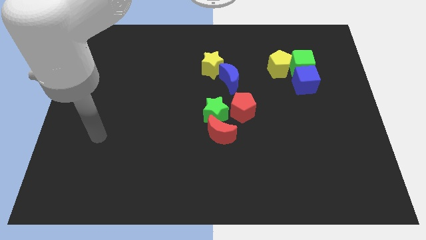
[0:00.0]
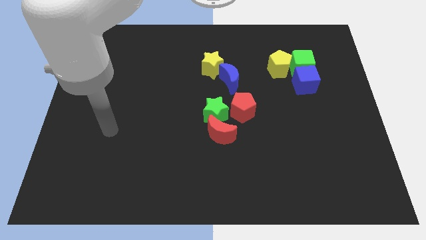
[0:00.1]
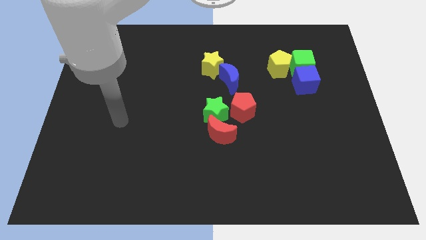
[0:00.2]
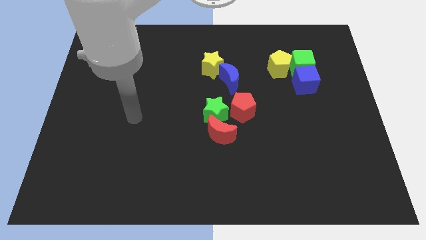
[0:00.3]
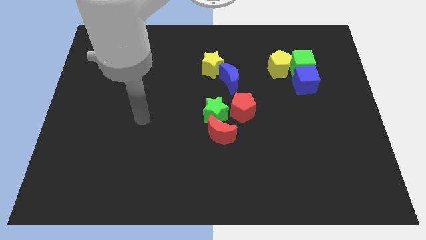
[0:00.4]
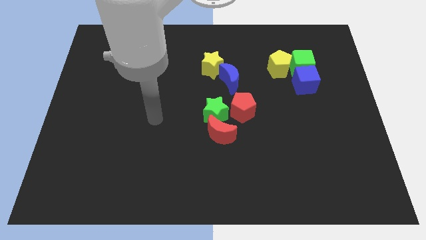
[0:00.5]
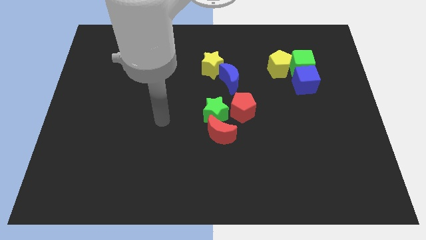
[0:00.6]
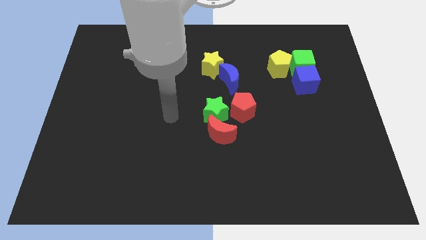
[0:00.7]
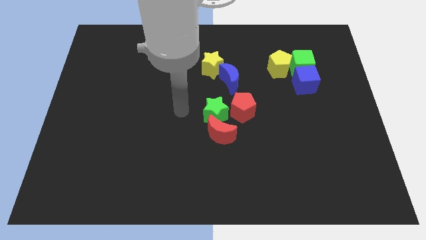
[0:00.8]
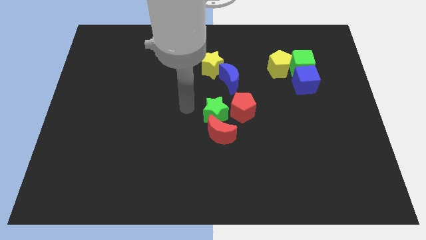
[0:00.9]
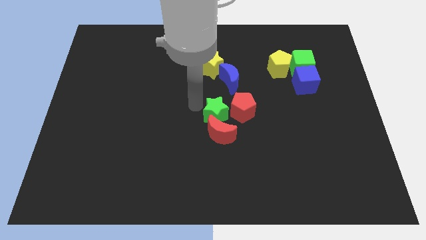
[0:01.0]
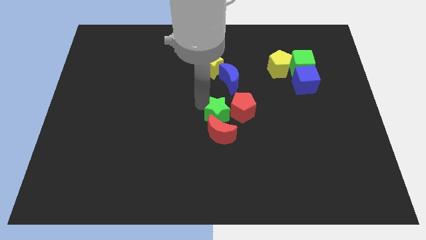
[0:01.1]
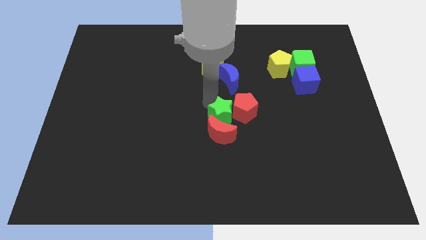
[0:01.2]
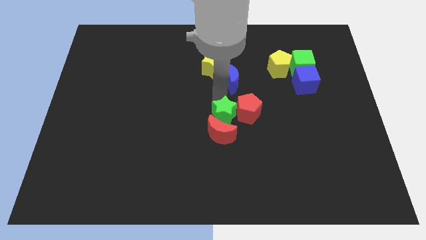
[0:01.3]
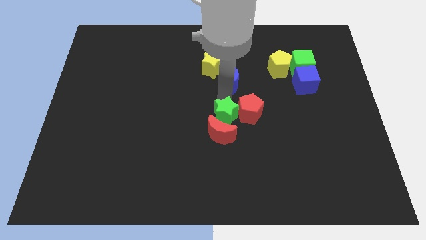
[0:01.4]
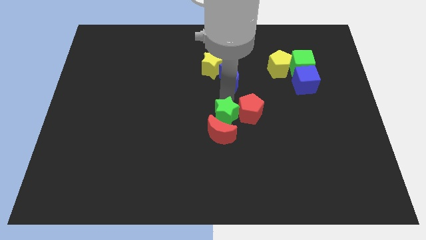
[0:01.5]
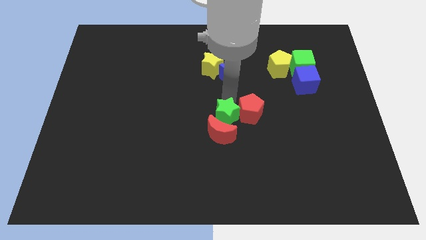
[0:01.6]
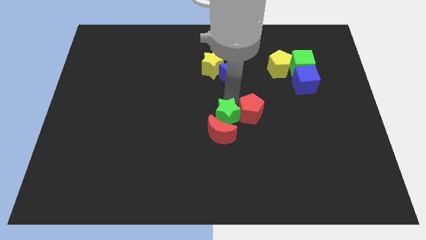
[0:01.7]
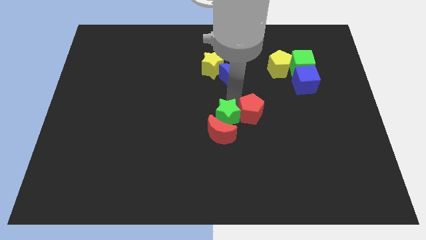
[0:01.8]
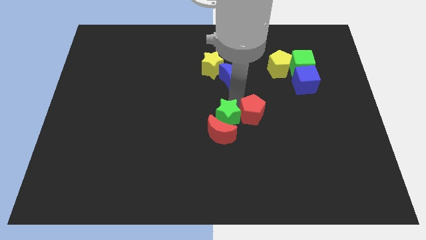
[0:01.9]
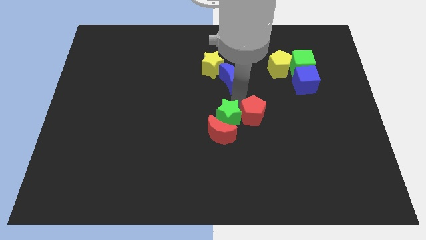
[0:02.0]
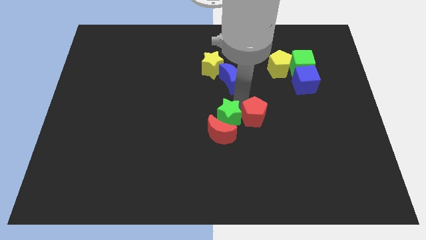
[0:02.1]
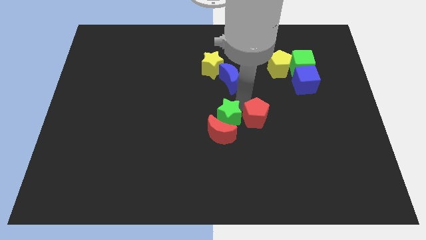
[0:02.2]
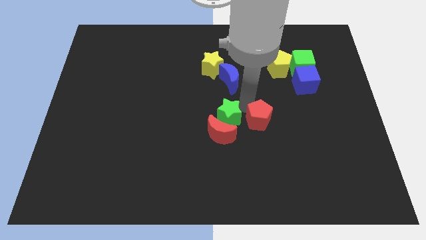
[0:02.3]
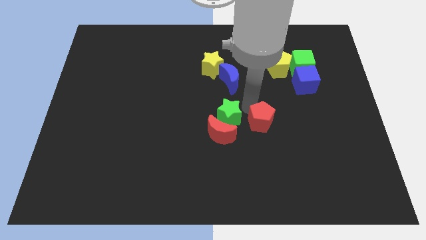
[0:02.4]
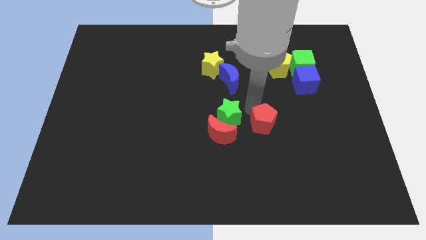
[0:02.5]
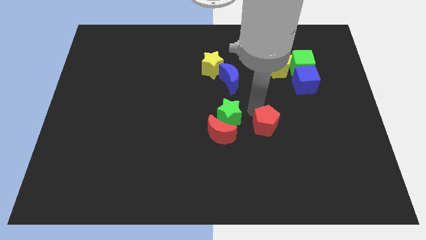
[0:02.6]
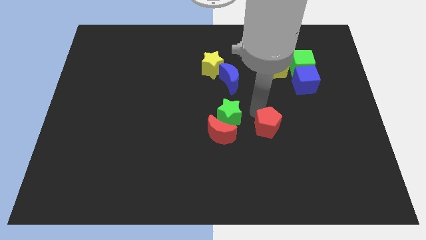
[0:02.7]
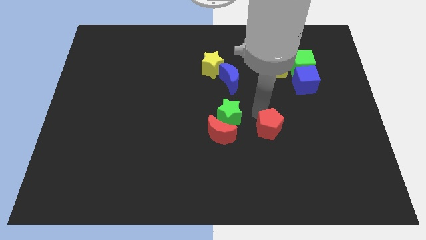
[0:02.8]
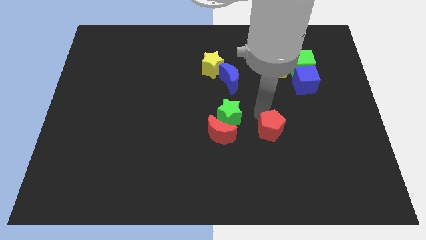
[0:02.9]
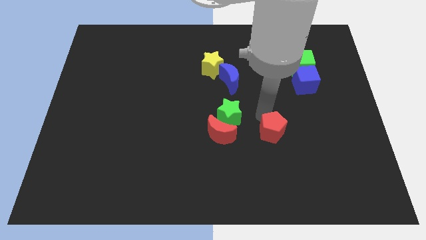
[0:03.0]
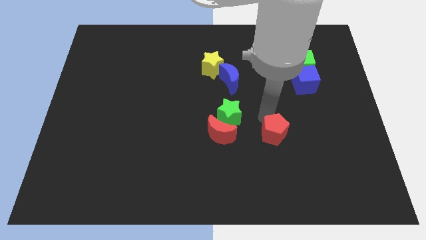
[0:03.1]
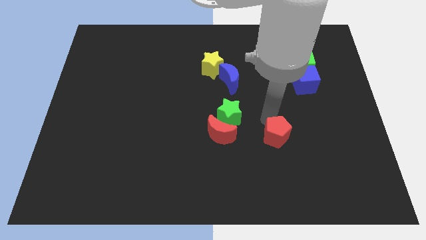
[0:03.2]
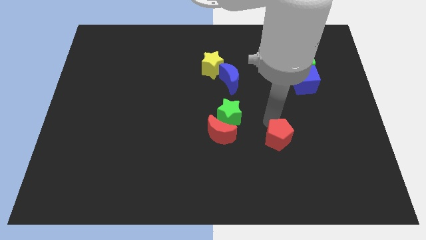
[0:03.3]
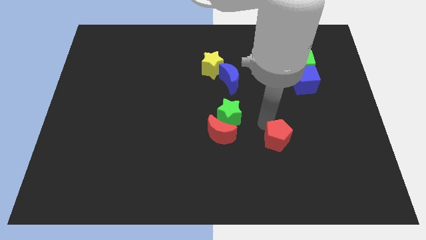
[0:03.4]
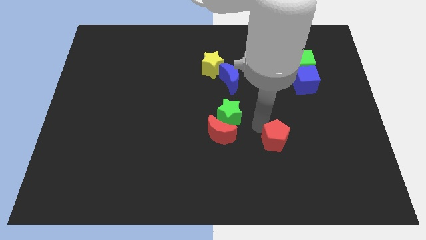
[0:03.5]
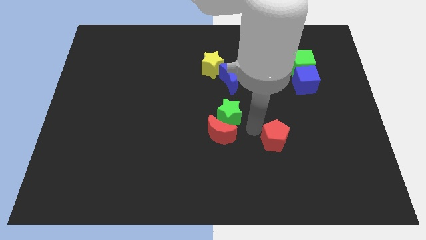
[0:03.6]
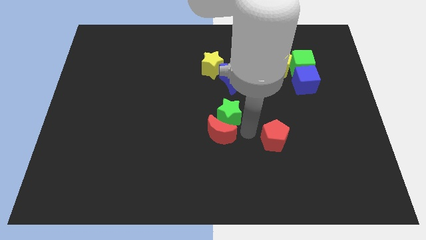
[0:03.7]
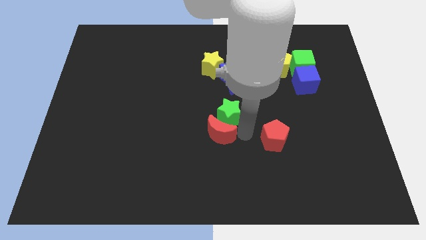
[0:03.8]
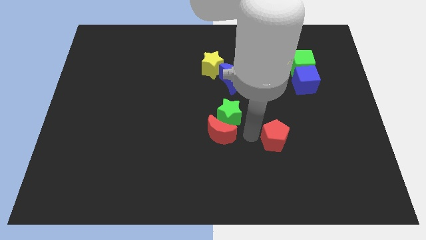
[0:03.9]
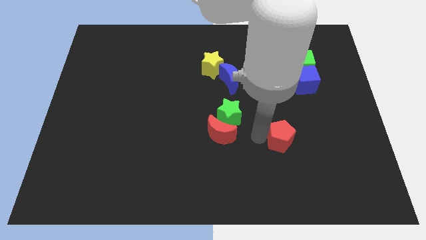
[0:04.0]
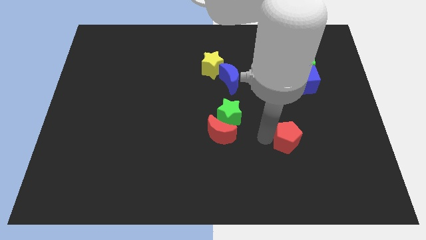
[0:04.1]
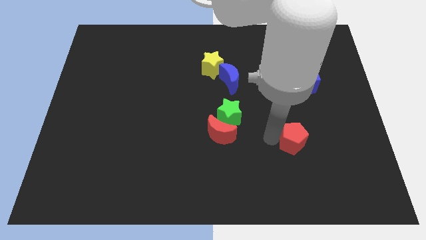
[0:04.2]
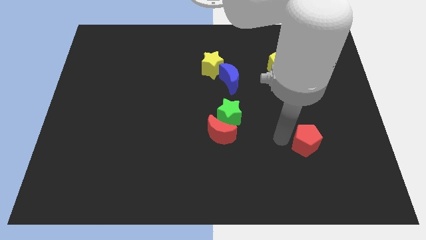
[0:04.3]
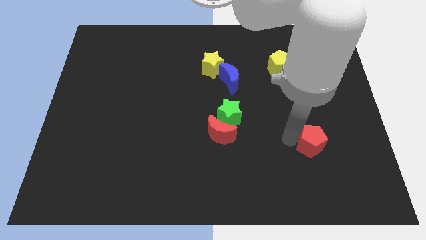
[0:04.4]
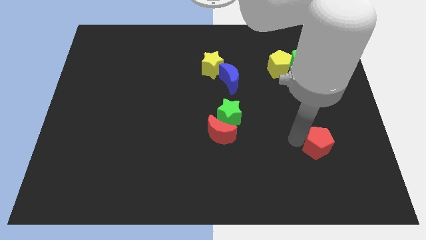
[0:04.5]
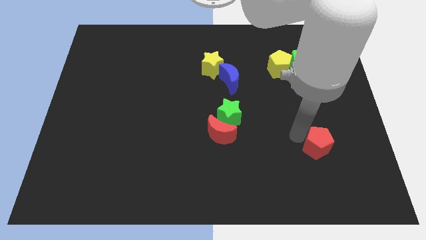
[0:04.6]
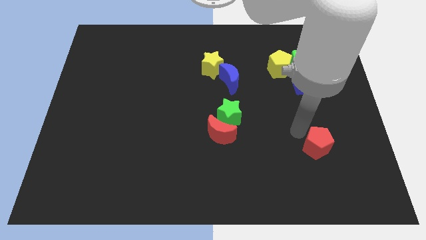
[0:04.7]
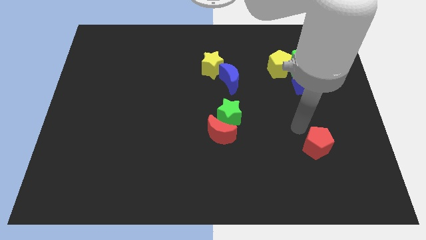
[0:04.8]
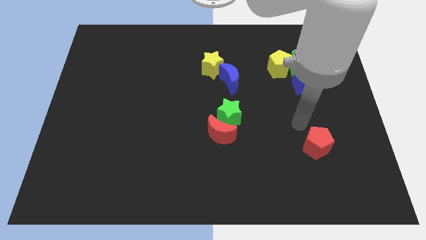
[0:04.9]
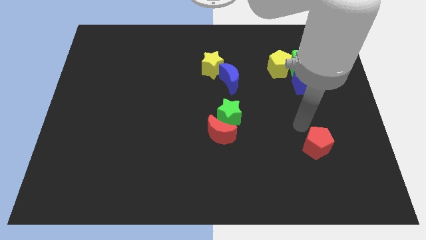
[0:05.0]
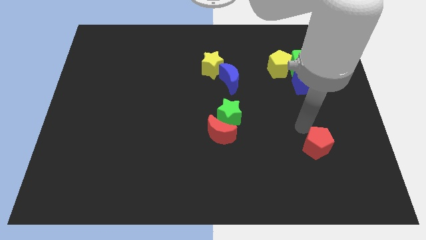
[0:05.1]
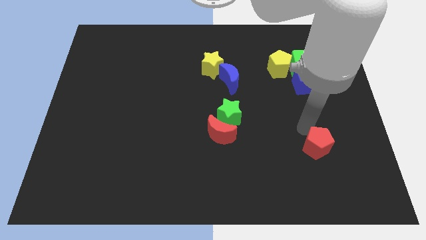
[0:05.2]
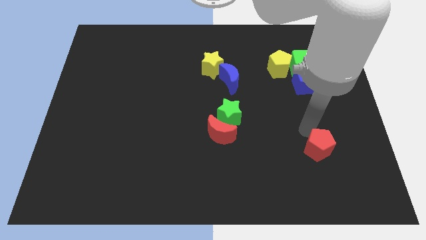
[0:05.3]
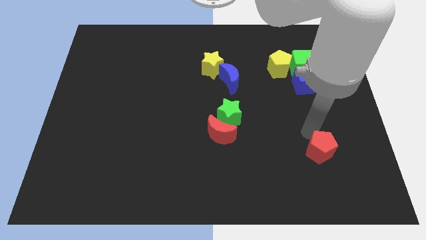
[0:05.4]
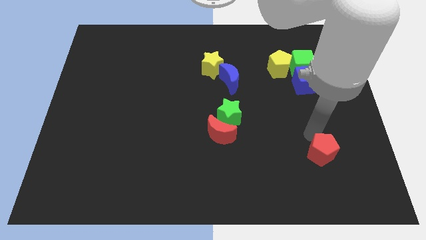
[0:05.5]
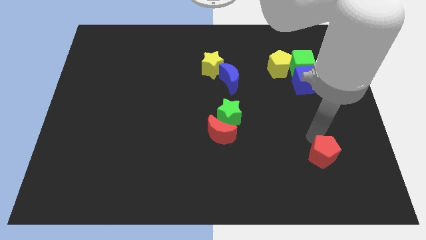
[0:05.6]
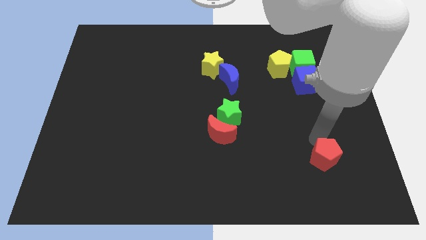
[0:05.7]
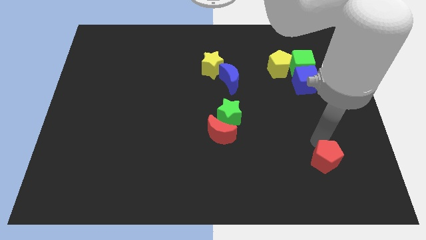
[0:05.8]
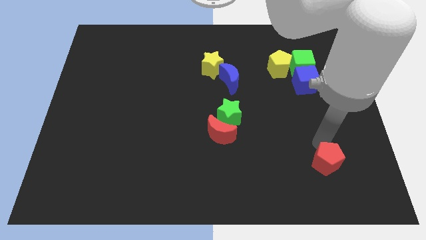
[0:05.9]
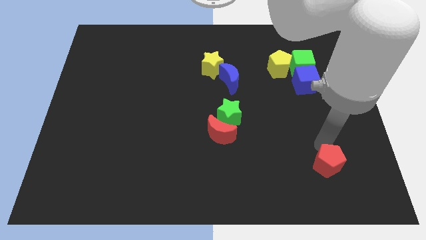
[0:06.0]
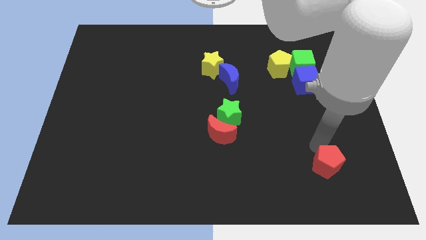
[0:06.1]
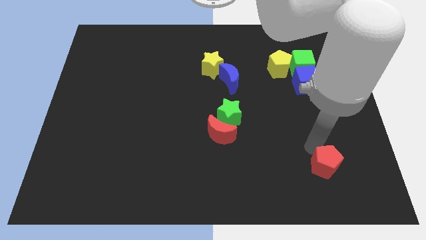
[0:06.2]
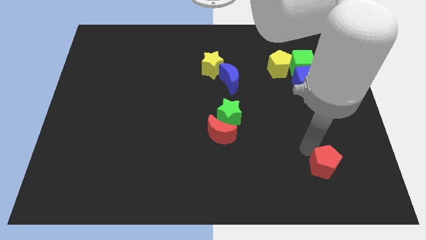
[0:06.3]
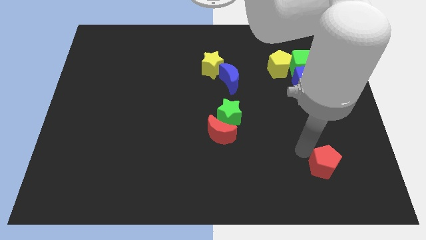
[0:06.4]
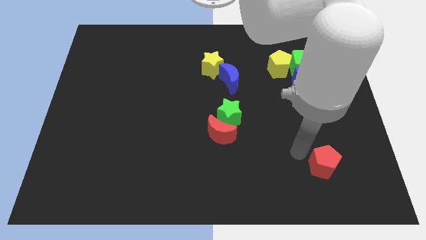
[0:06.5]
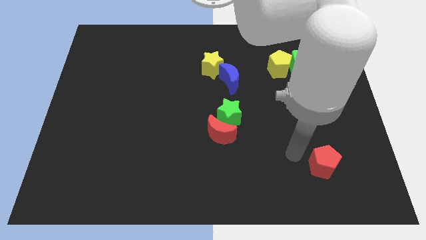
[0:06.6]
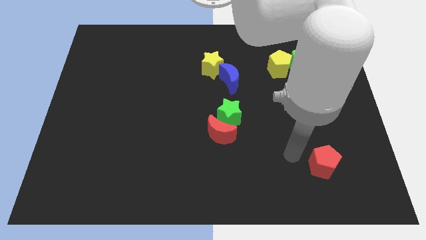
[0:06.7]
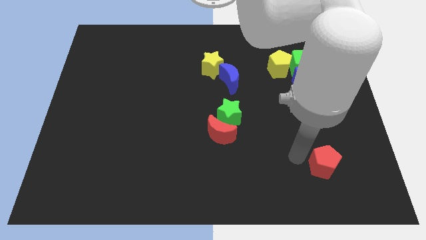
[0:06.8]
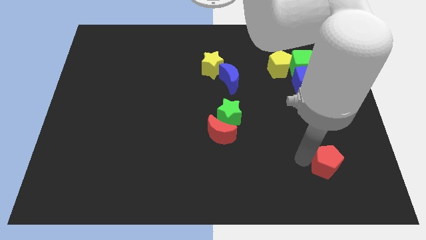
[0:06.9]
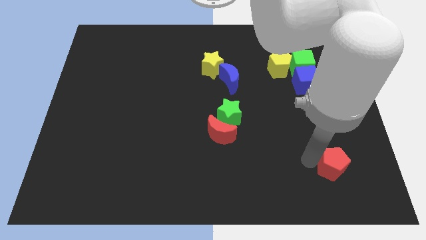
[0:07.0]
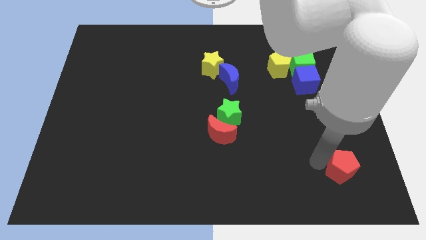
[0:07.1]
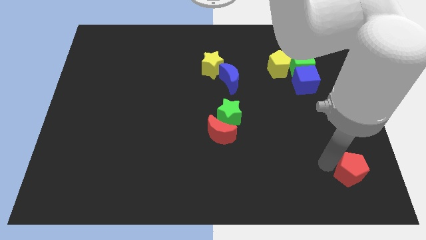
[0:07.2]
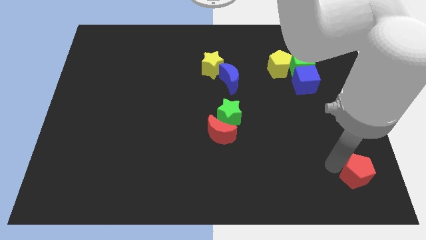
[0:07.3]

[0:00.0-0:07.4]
put the red pentagon to the lower right corner
